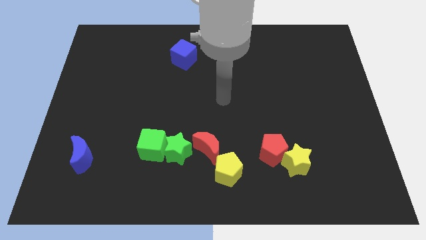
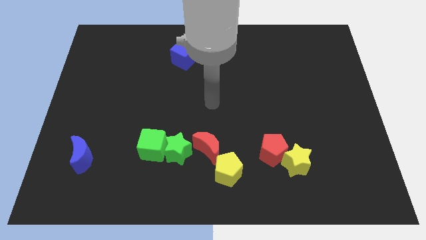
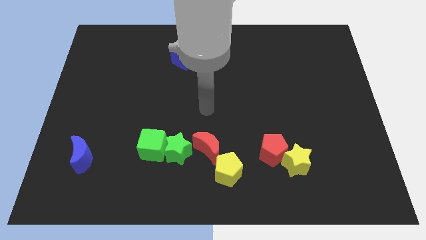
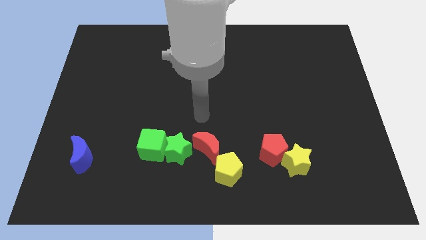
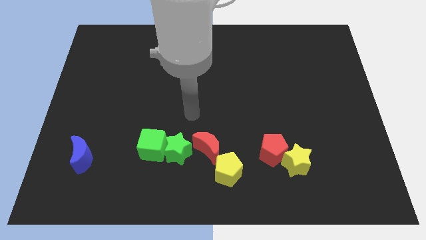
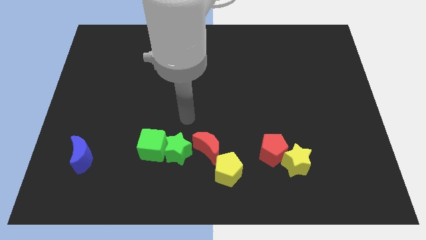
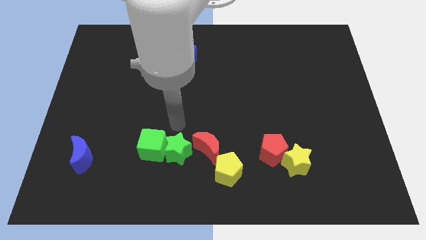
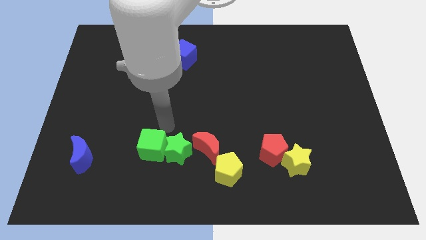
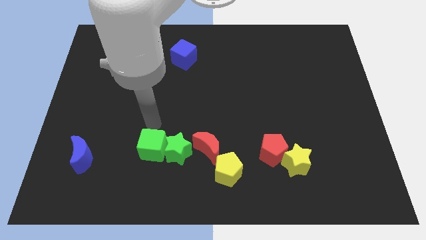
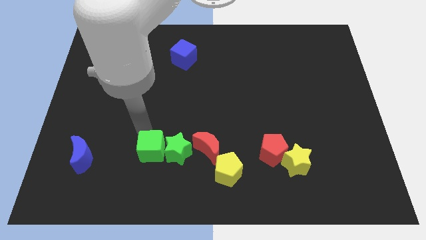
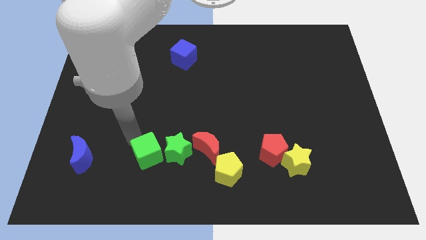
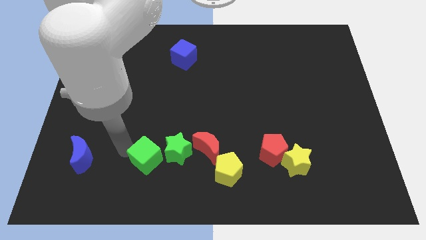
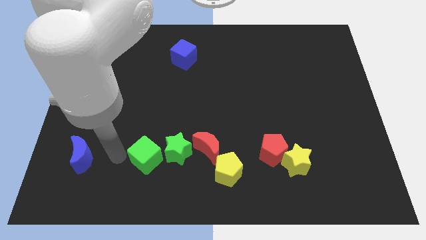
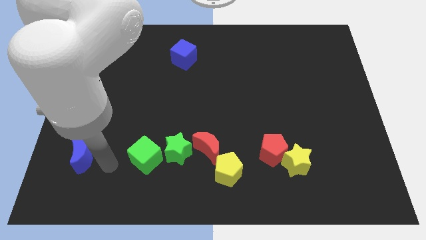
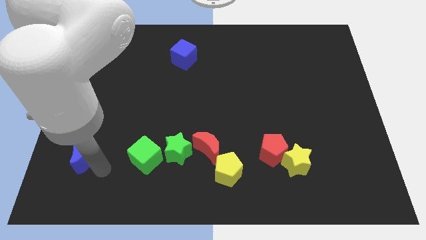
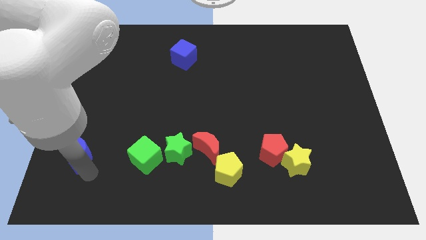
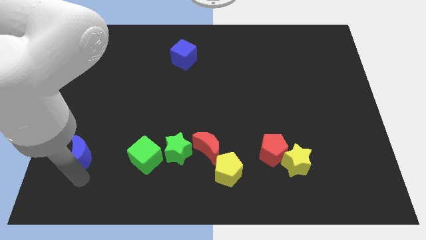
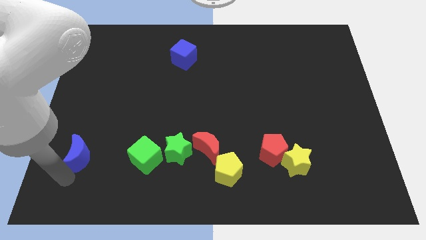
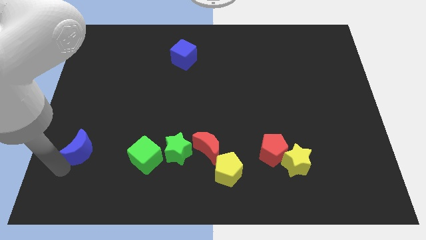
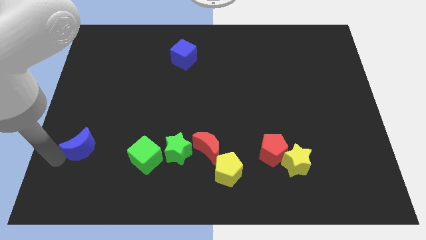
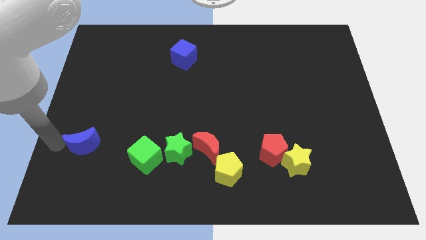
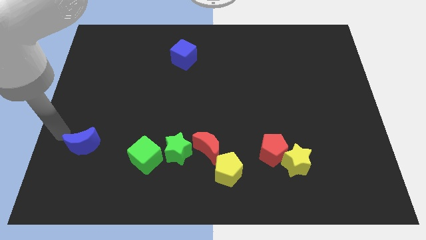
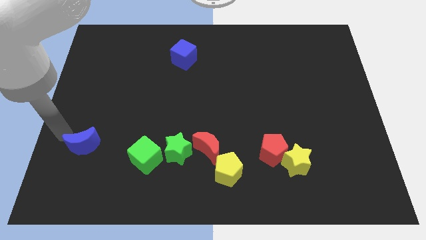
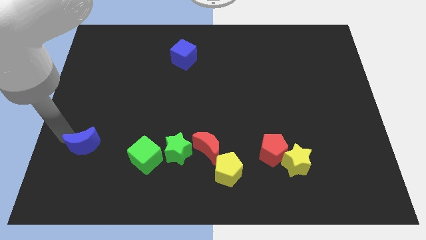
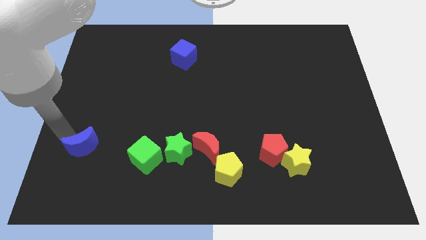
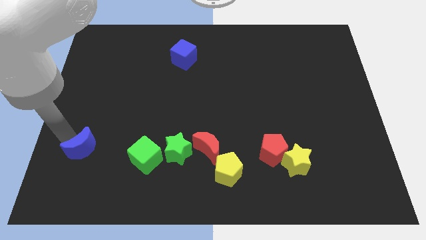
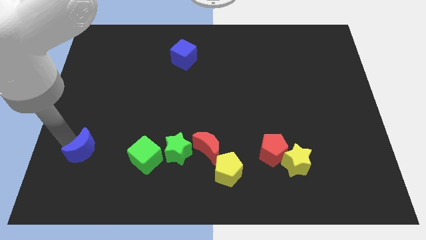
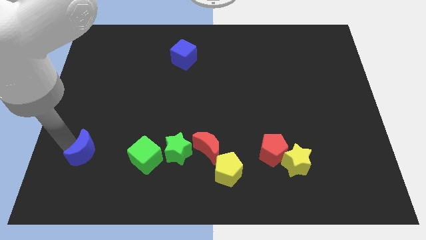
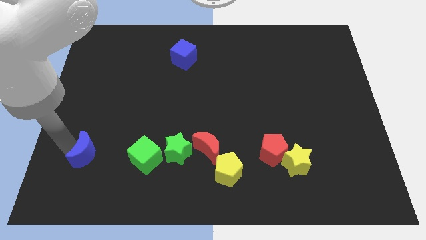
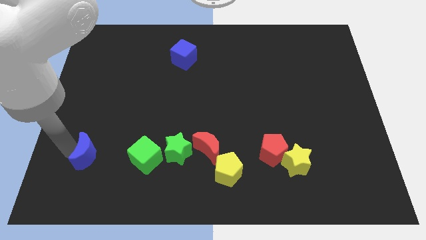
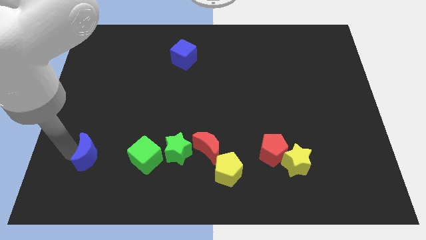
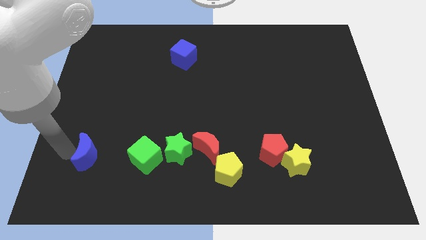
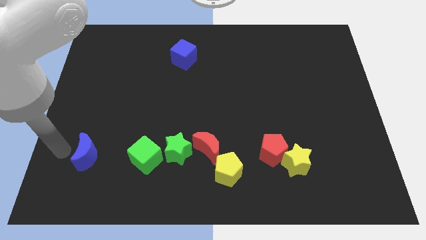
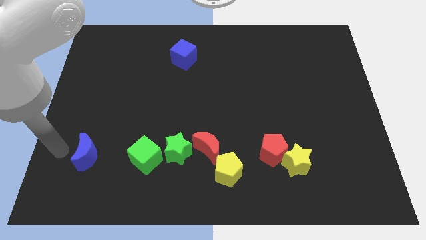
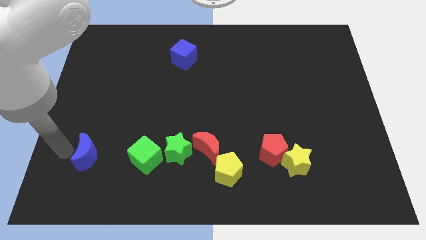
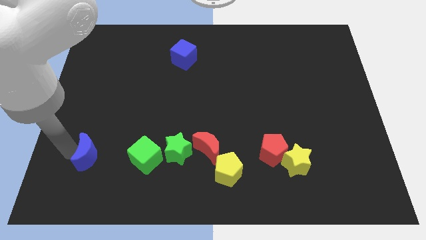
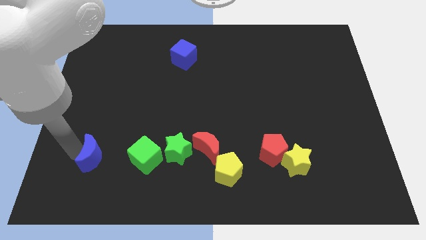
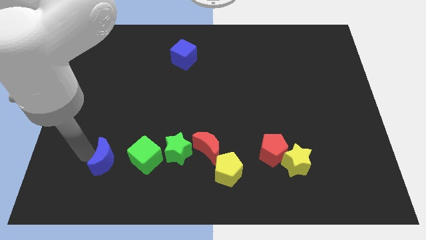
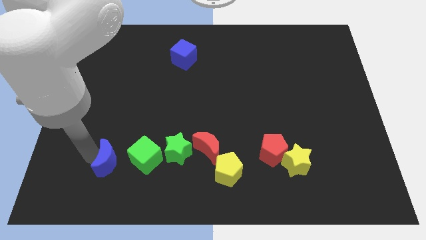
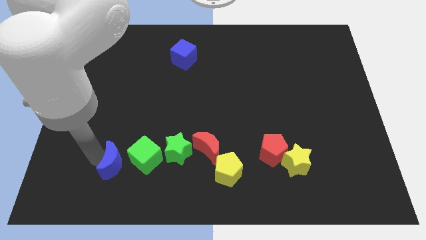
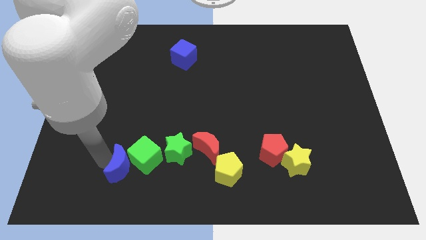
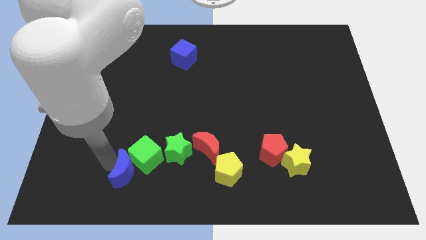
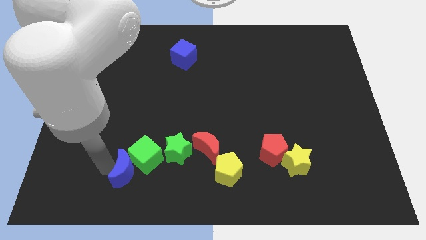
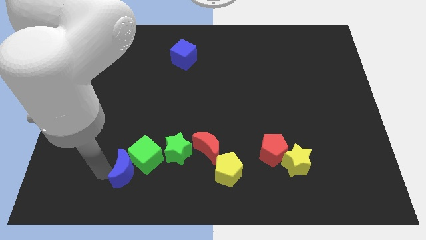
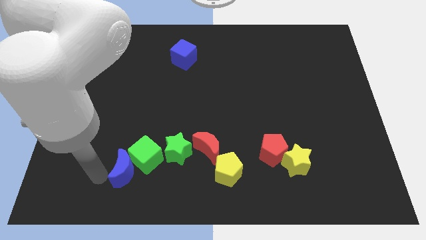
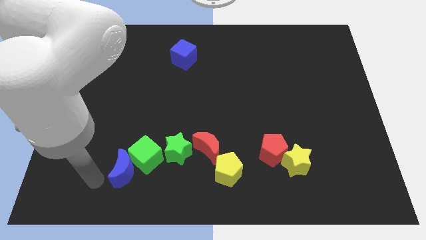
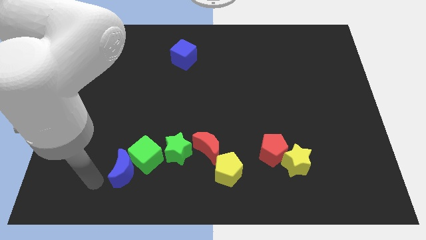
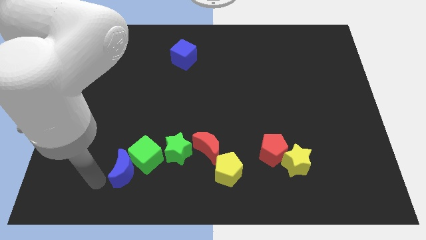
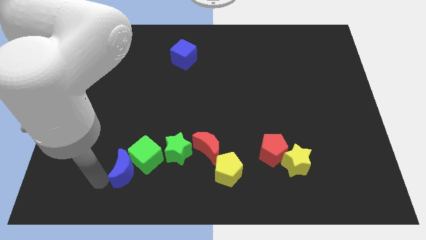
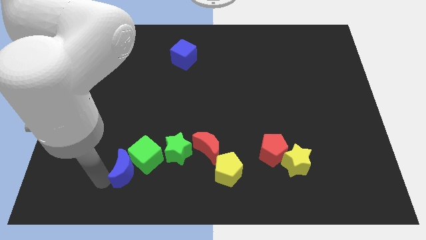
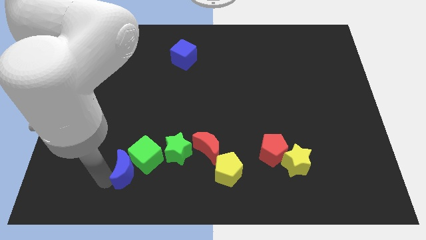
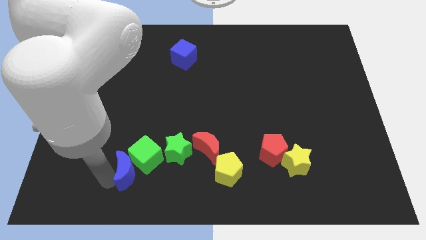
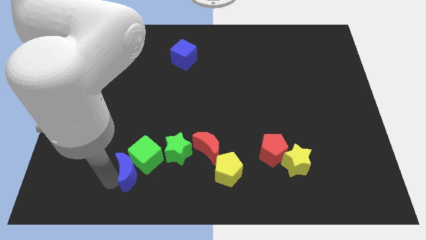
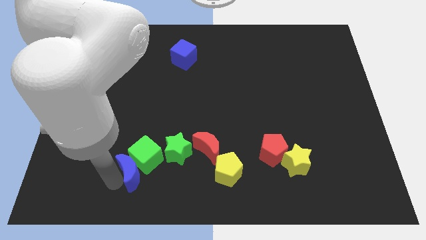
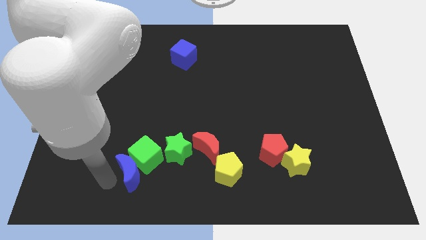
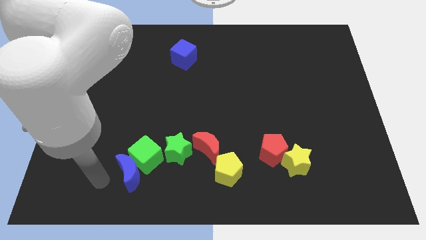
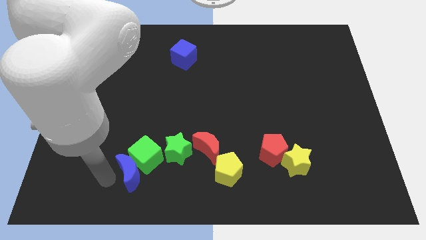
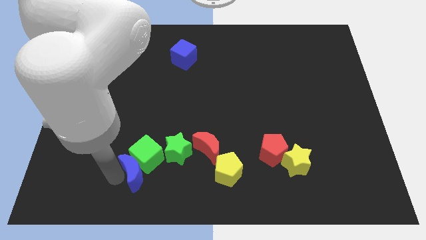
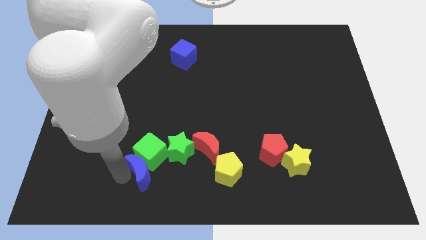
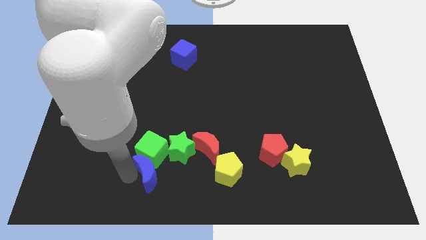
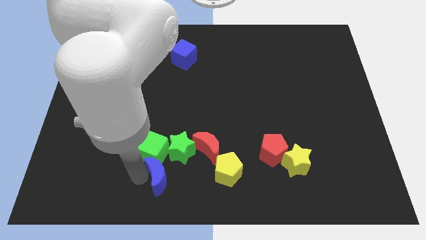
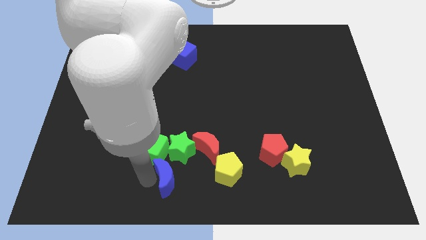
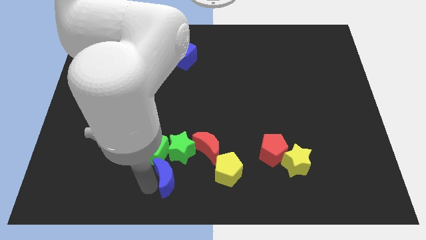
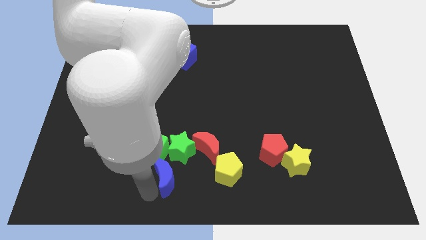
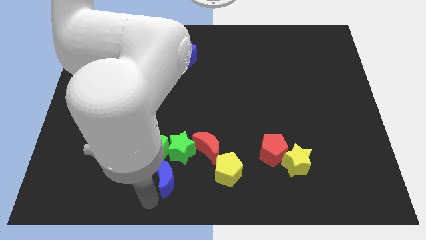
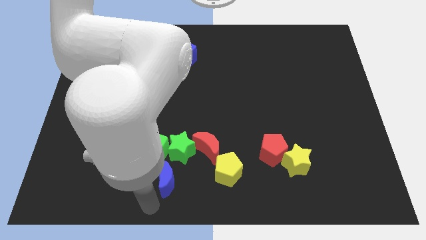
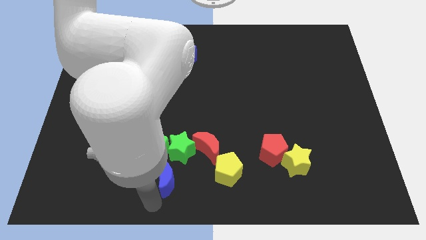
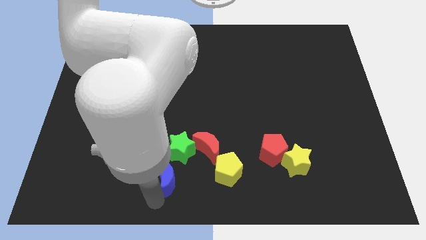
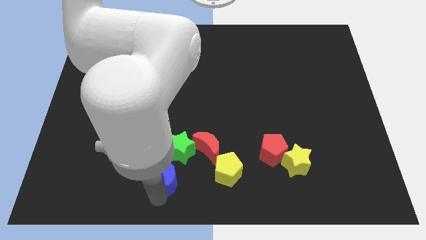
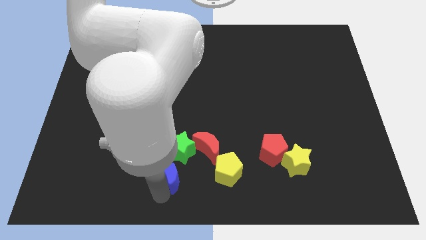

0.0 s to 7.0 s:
put the blue moon close to the green star
